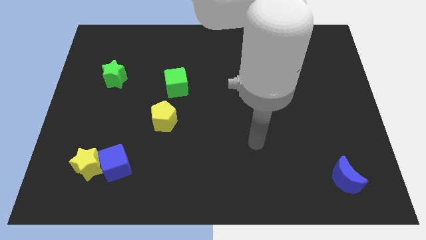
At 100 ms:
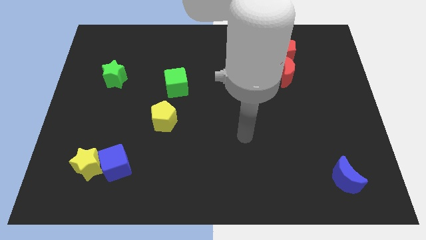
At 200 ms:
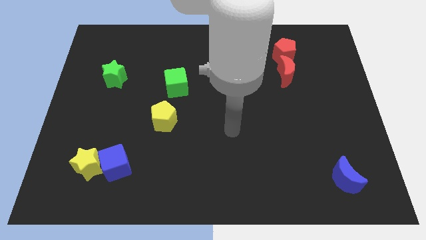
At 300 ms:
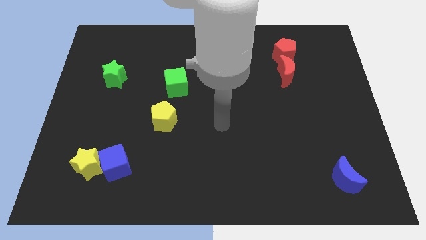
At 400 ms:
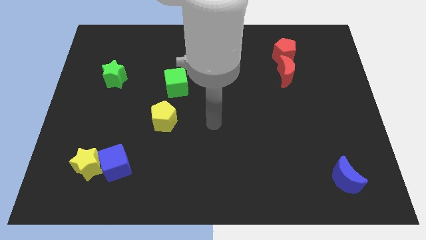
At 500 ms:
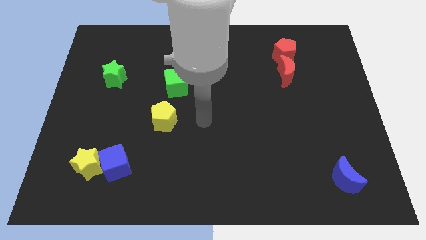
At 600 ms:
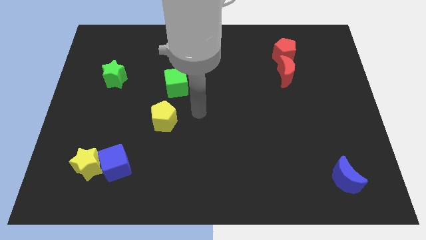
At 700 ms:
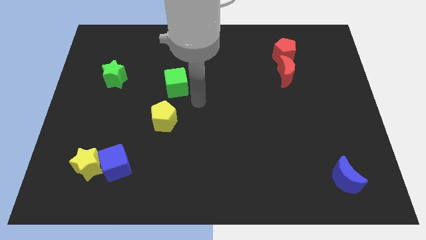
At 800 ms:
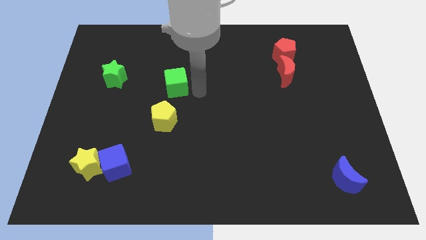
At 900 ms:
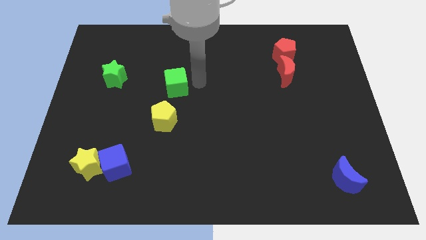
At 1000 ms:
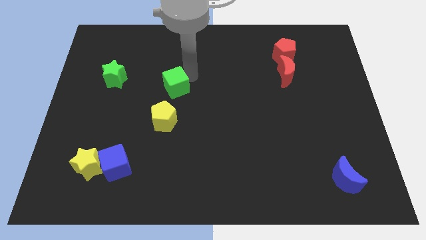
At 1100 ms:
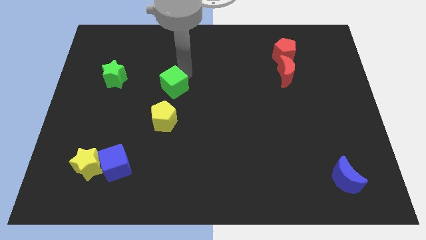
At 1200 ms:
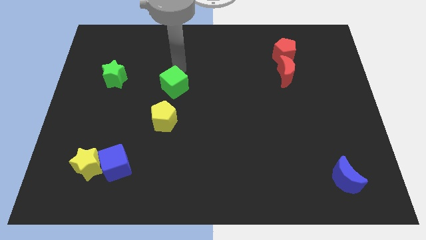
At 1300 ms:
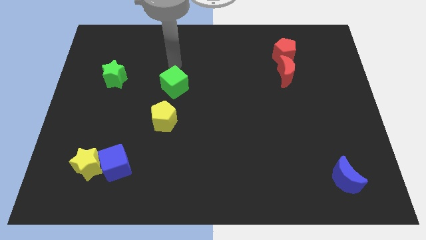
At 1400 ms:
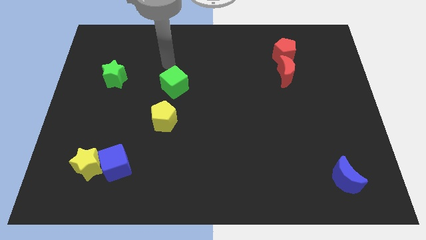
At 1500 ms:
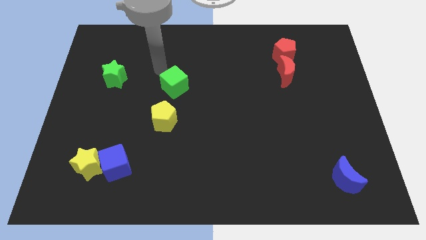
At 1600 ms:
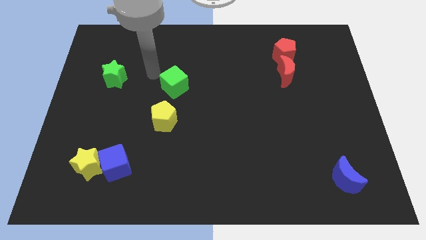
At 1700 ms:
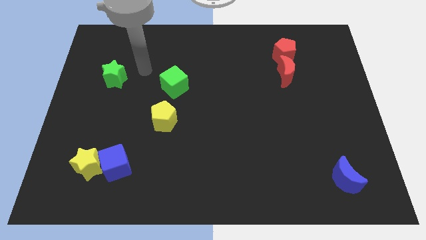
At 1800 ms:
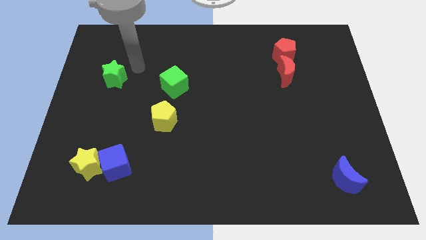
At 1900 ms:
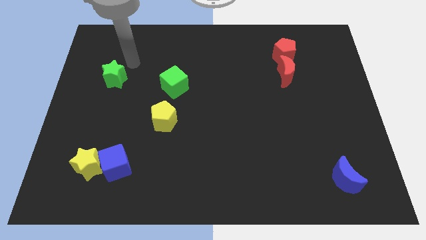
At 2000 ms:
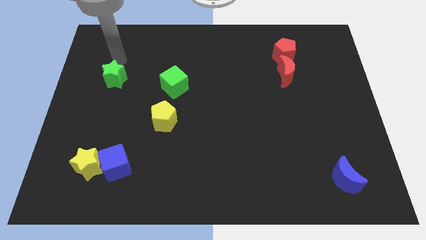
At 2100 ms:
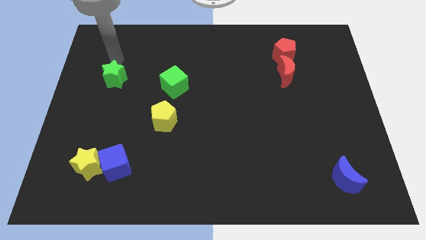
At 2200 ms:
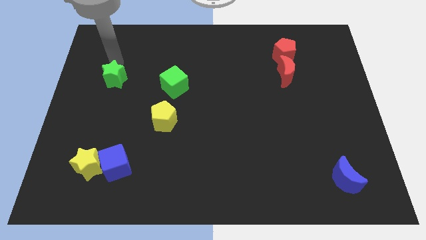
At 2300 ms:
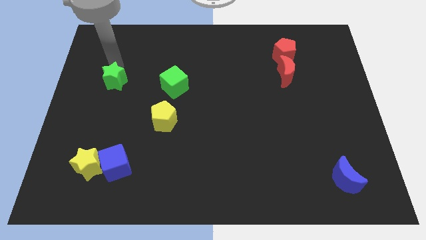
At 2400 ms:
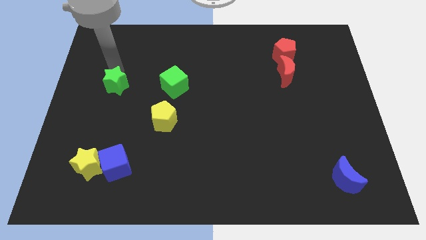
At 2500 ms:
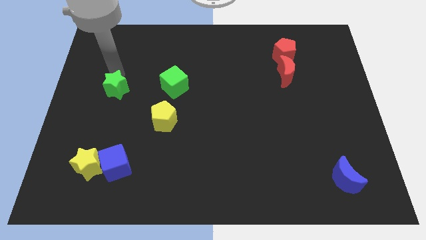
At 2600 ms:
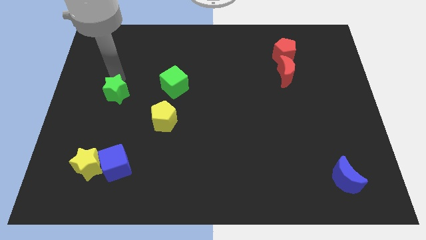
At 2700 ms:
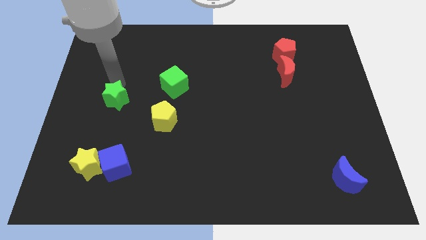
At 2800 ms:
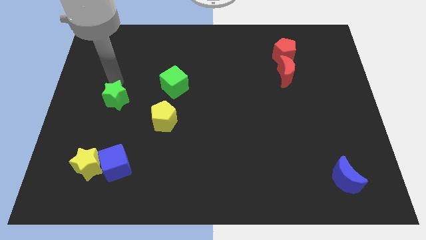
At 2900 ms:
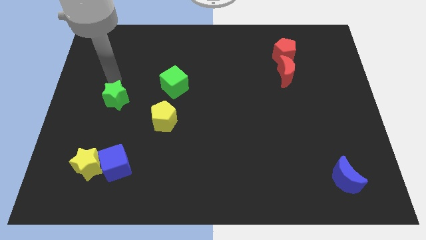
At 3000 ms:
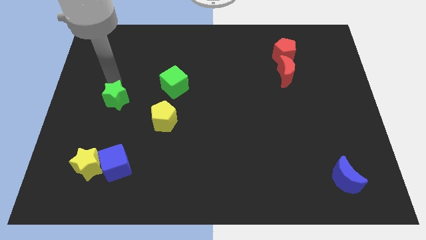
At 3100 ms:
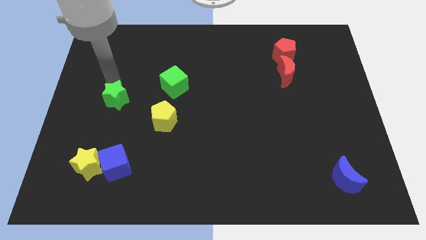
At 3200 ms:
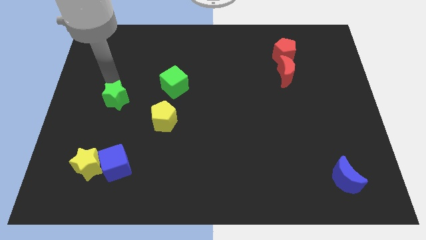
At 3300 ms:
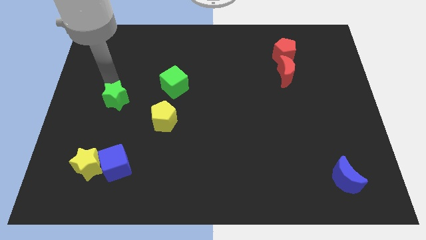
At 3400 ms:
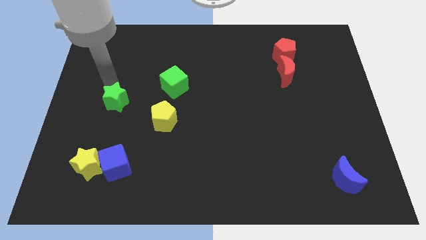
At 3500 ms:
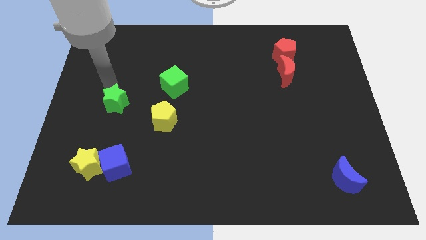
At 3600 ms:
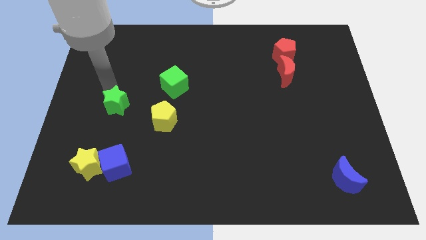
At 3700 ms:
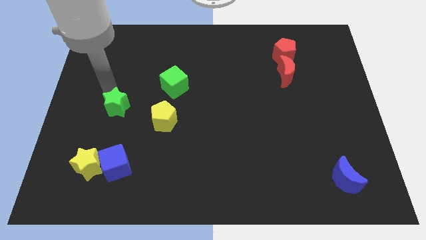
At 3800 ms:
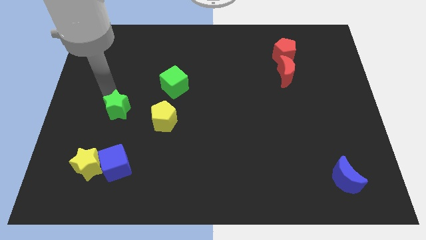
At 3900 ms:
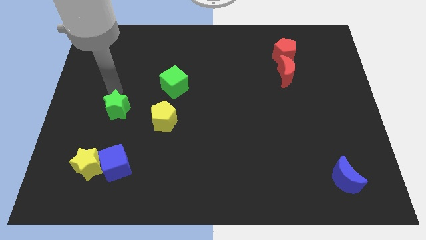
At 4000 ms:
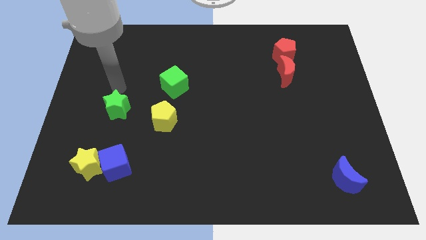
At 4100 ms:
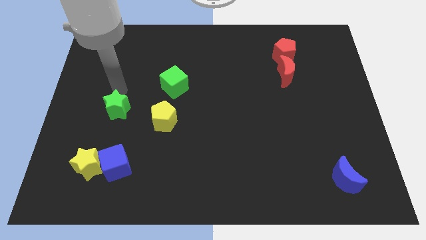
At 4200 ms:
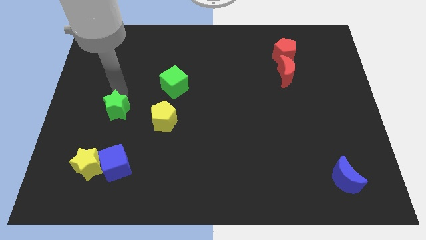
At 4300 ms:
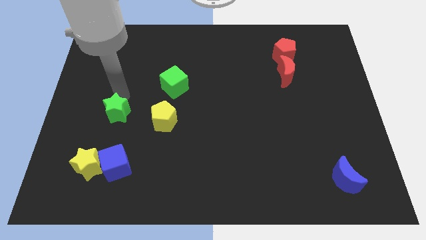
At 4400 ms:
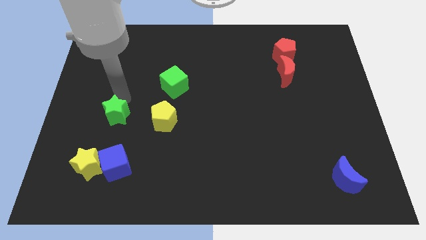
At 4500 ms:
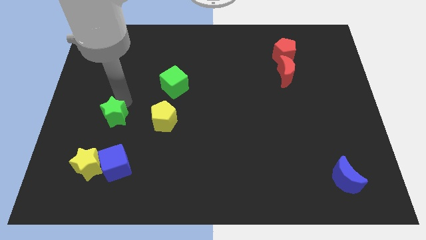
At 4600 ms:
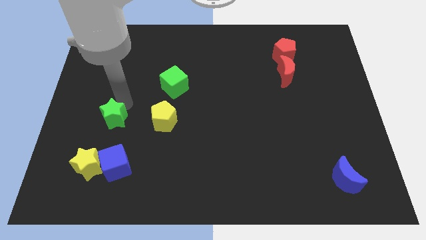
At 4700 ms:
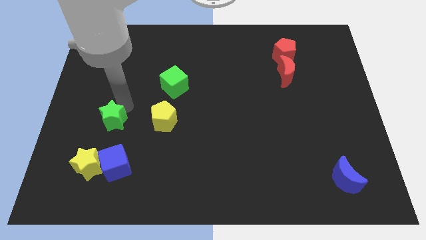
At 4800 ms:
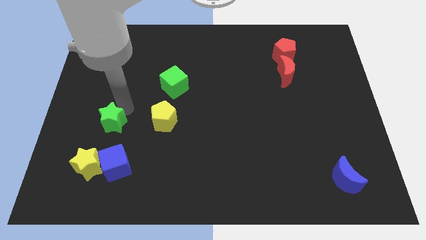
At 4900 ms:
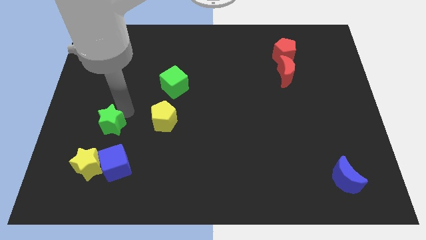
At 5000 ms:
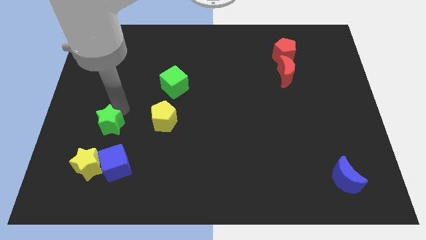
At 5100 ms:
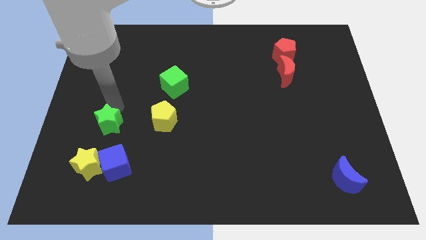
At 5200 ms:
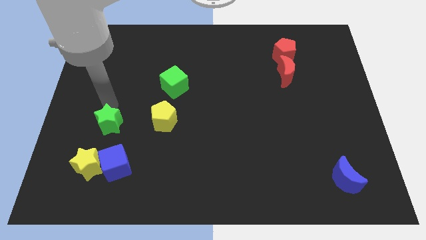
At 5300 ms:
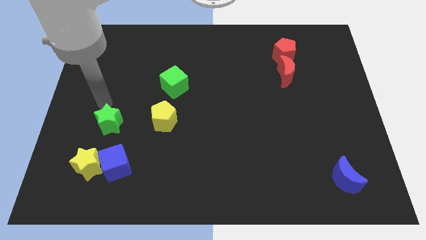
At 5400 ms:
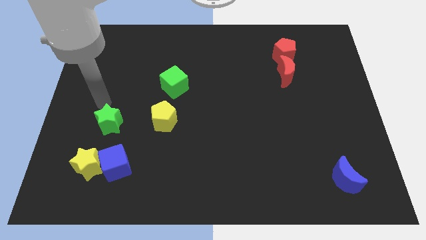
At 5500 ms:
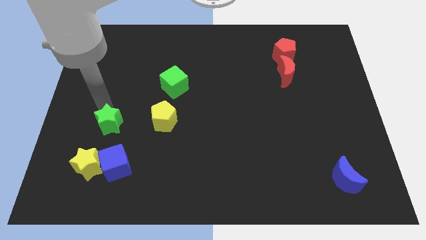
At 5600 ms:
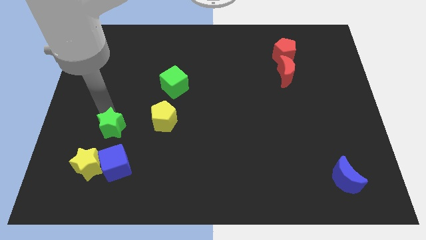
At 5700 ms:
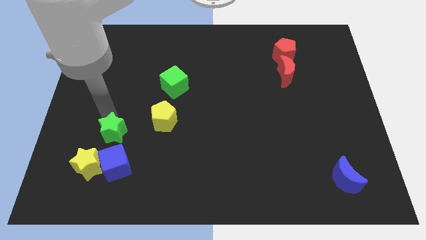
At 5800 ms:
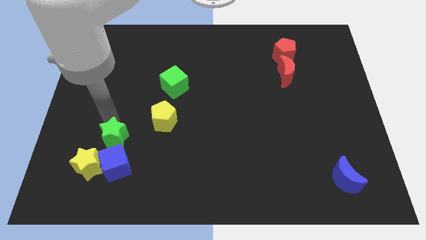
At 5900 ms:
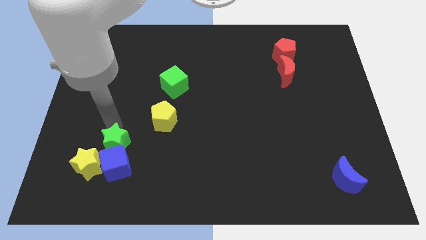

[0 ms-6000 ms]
push the green star to the blue cube

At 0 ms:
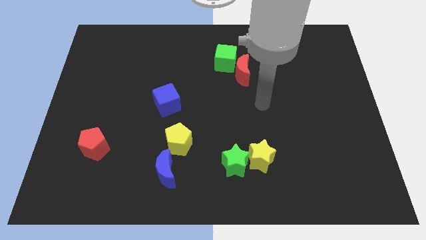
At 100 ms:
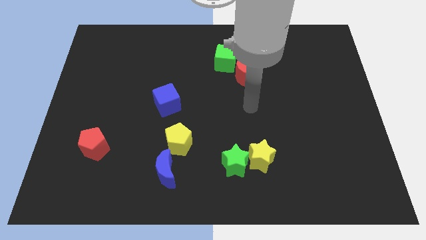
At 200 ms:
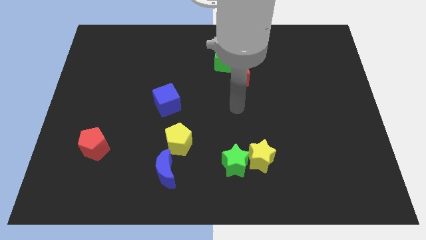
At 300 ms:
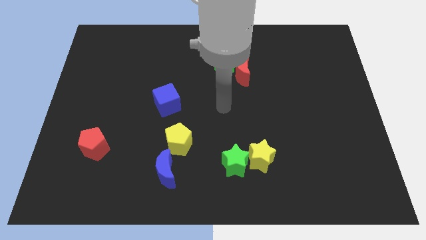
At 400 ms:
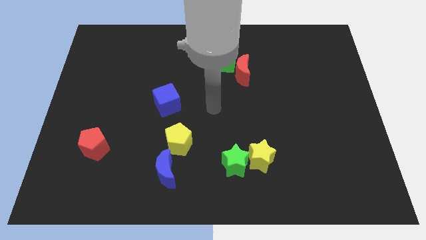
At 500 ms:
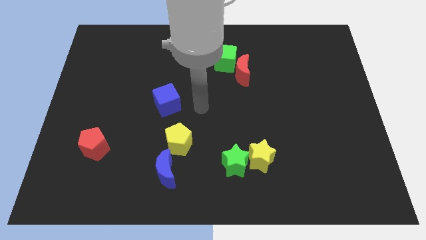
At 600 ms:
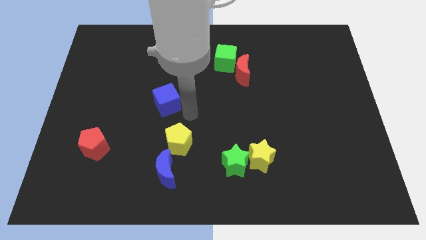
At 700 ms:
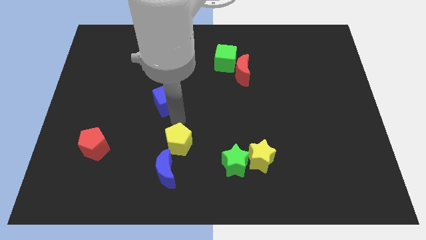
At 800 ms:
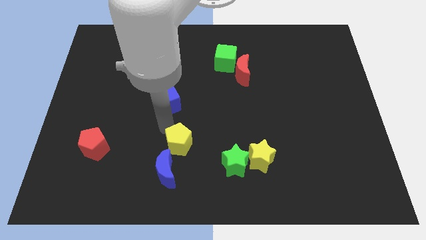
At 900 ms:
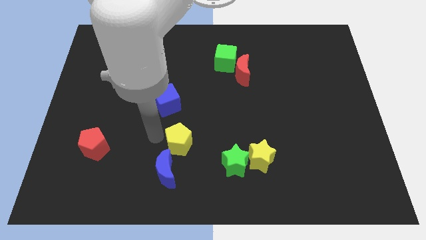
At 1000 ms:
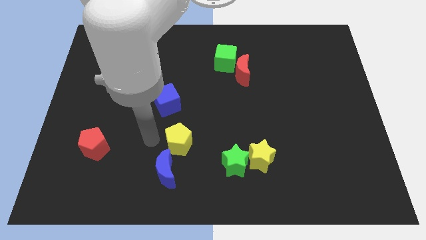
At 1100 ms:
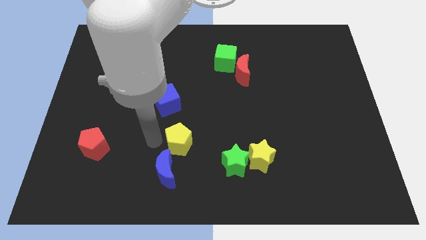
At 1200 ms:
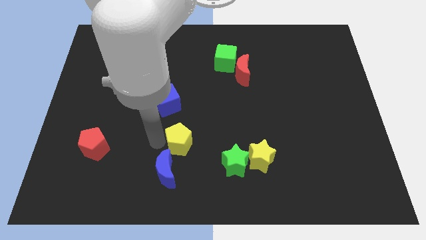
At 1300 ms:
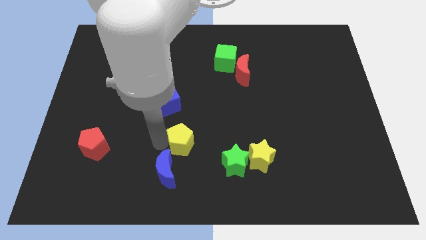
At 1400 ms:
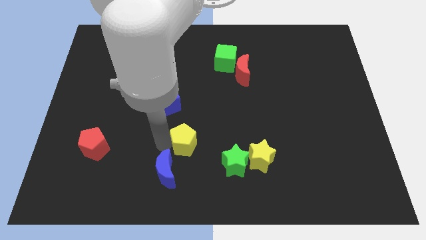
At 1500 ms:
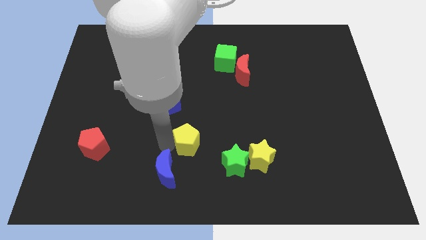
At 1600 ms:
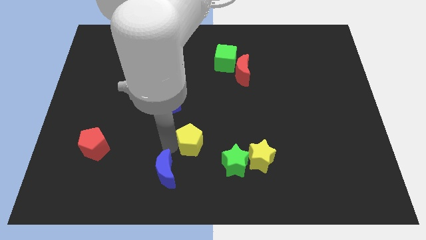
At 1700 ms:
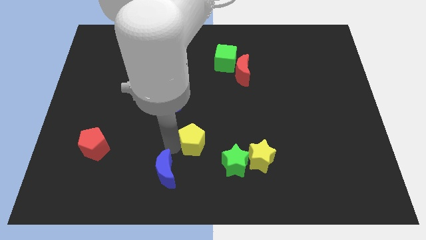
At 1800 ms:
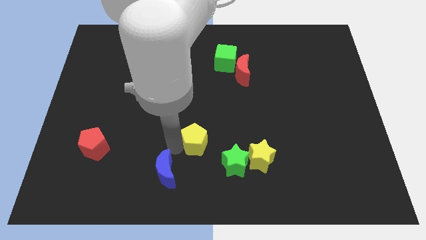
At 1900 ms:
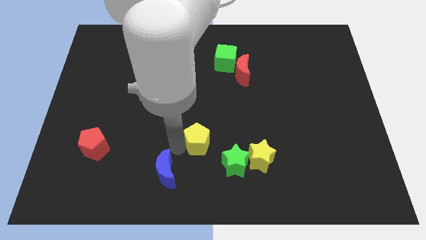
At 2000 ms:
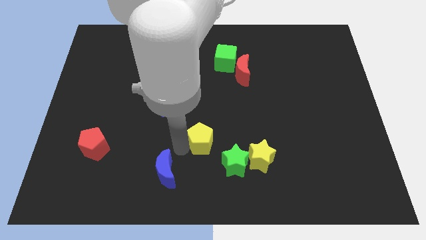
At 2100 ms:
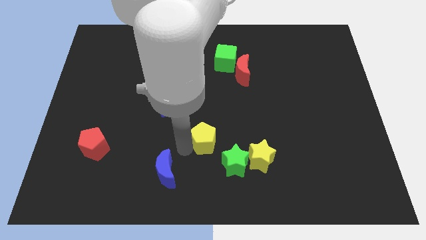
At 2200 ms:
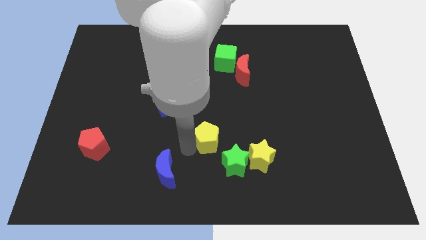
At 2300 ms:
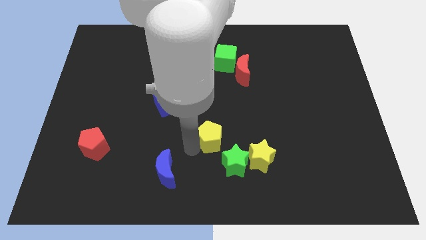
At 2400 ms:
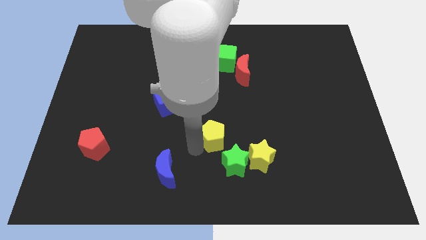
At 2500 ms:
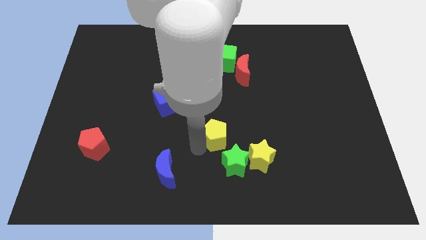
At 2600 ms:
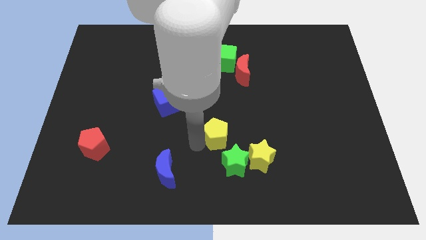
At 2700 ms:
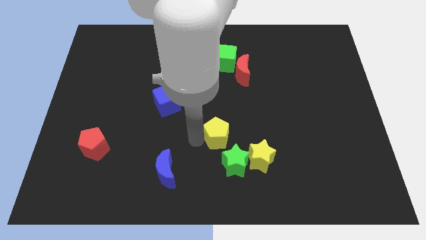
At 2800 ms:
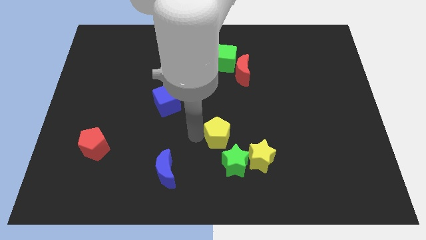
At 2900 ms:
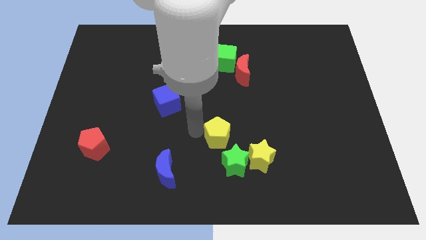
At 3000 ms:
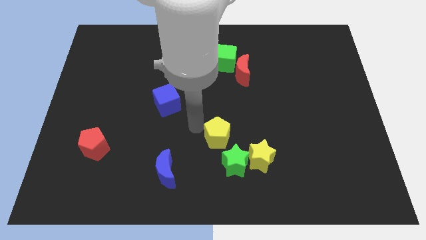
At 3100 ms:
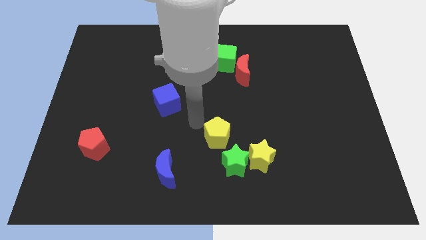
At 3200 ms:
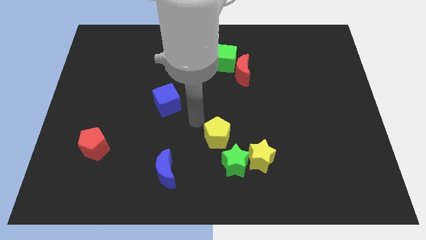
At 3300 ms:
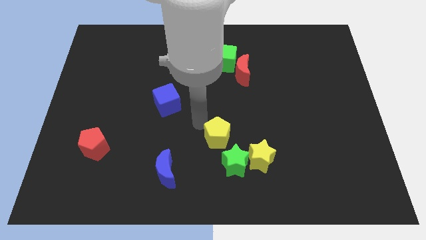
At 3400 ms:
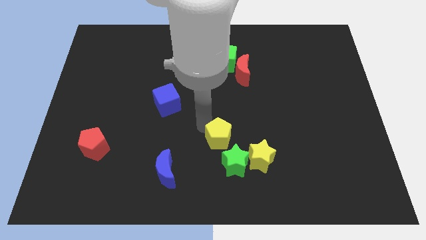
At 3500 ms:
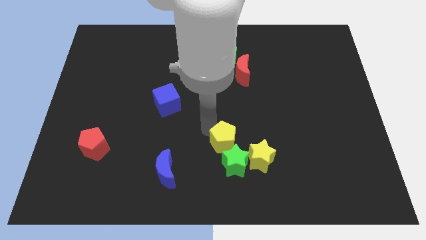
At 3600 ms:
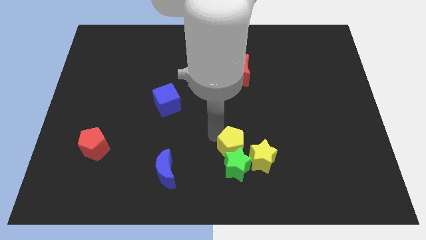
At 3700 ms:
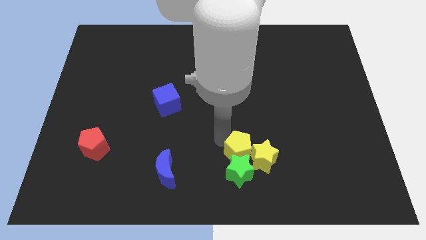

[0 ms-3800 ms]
slide the yellow pentagon to the yellow star
